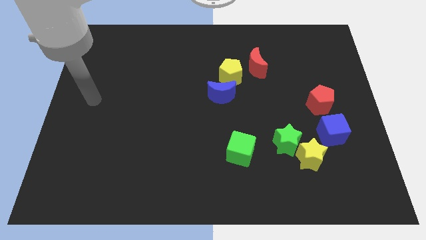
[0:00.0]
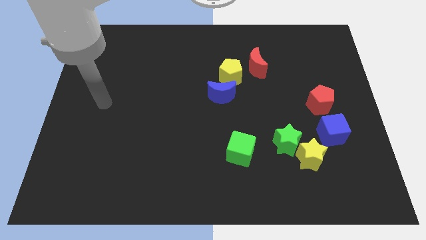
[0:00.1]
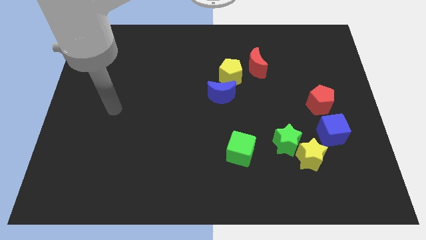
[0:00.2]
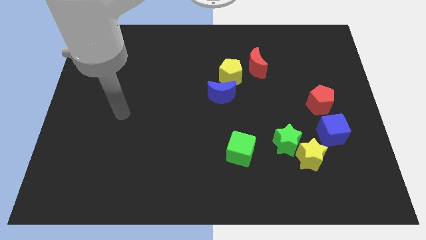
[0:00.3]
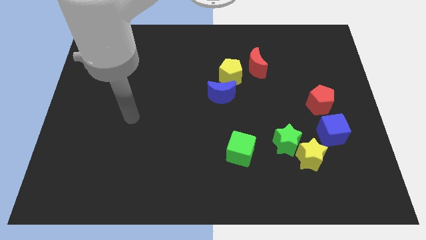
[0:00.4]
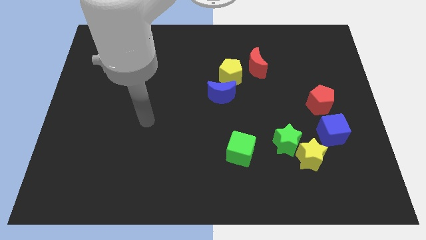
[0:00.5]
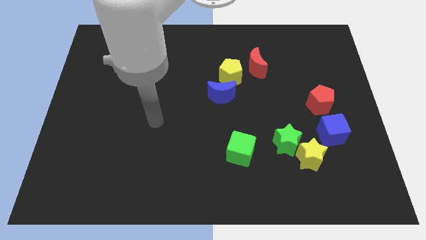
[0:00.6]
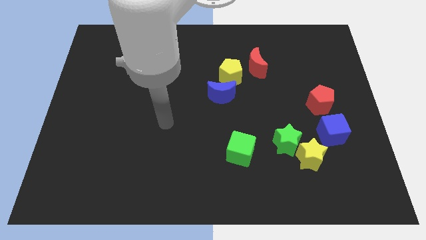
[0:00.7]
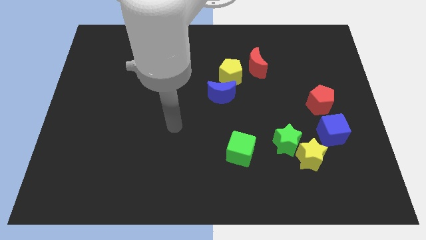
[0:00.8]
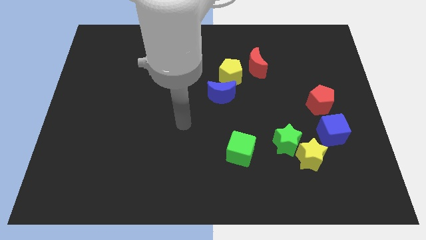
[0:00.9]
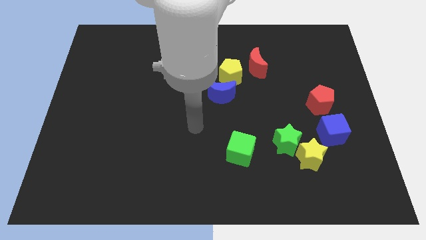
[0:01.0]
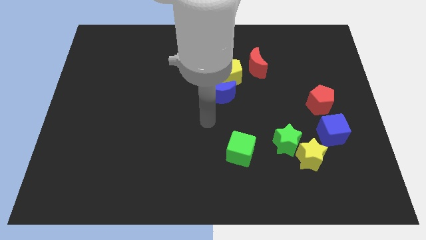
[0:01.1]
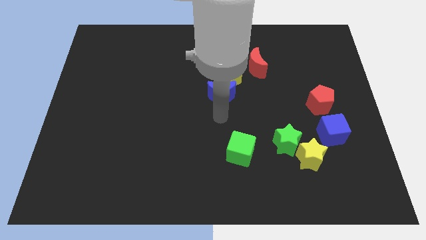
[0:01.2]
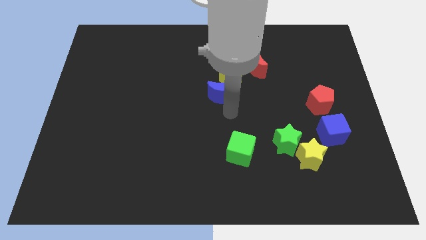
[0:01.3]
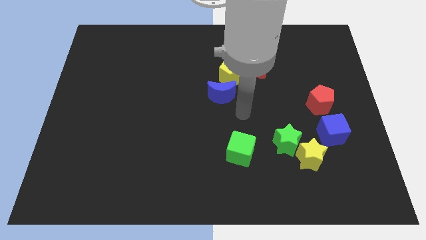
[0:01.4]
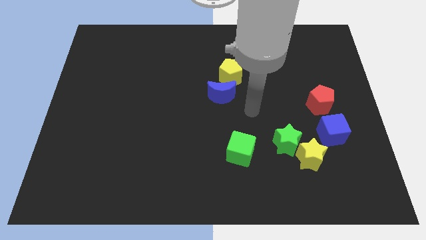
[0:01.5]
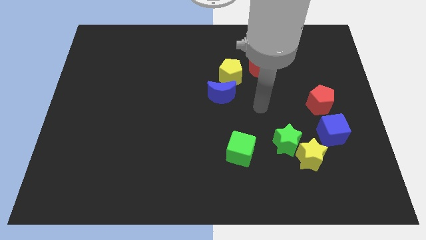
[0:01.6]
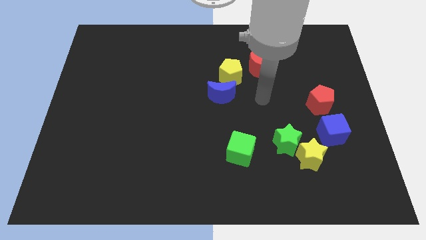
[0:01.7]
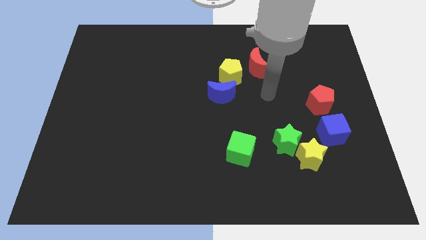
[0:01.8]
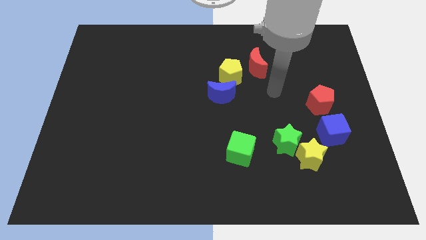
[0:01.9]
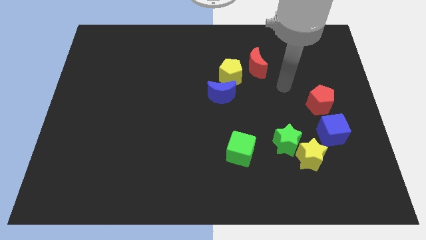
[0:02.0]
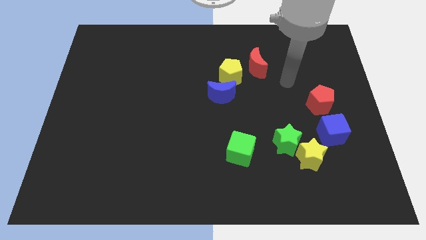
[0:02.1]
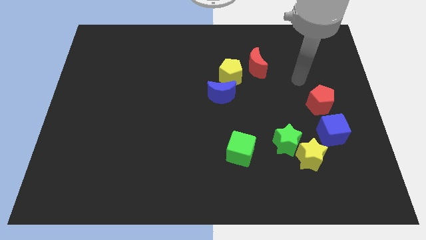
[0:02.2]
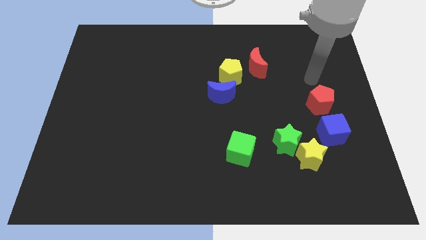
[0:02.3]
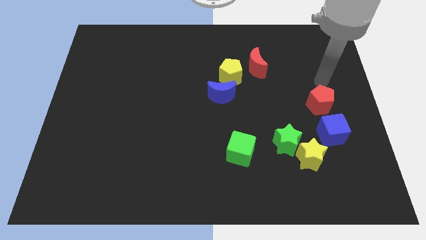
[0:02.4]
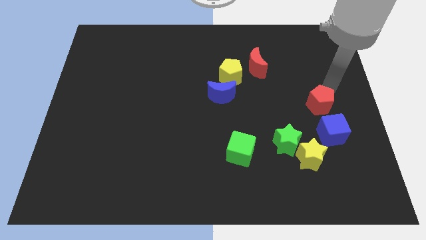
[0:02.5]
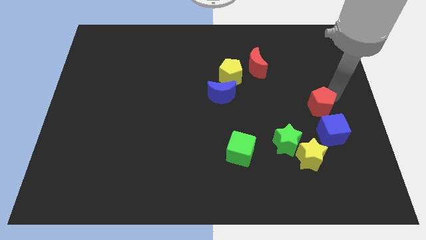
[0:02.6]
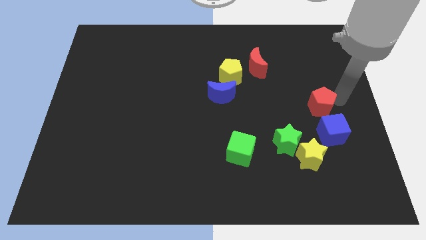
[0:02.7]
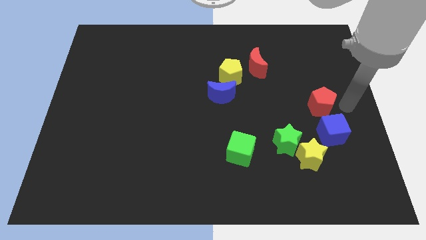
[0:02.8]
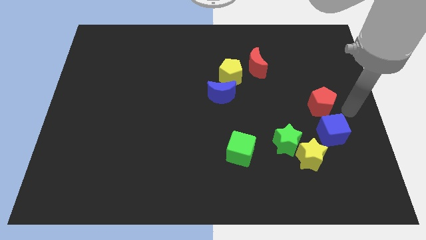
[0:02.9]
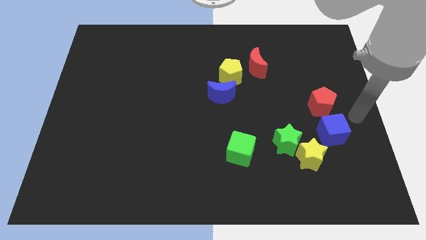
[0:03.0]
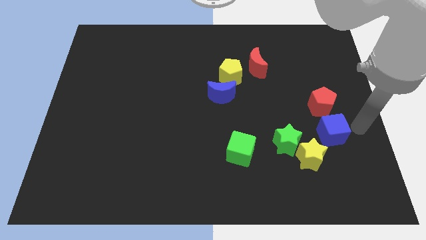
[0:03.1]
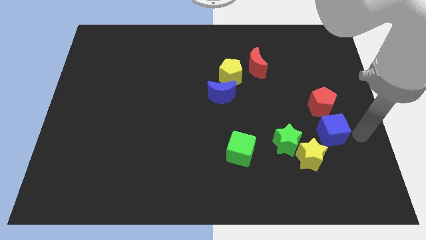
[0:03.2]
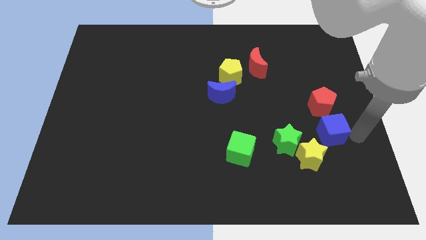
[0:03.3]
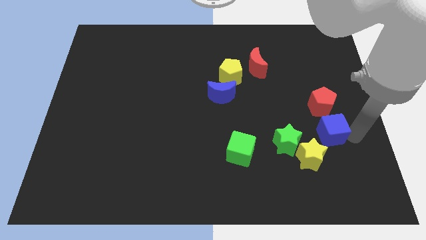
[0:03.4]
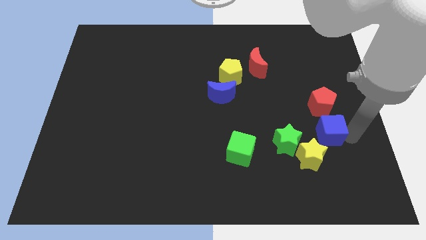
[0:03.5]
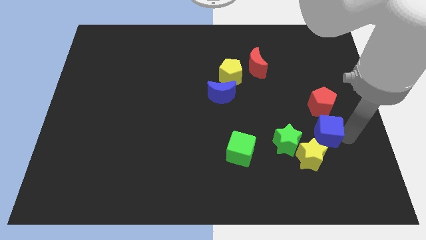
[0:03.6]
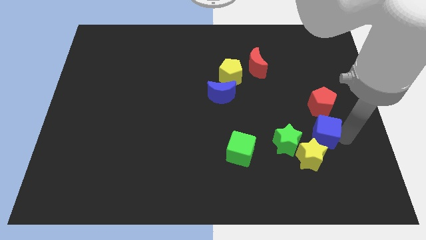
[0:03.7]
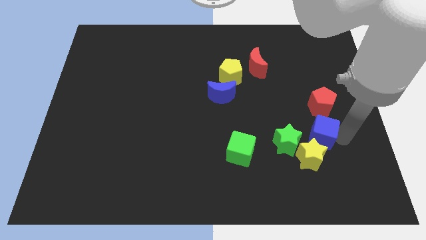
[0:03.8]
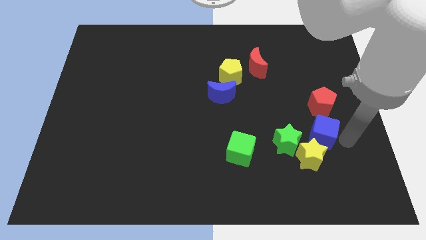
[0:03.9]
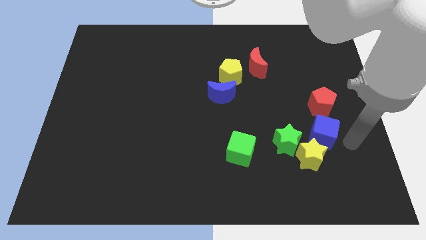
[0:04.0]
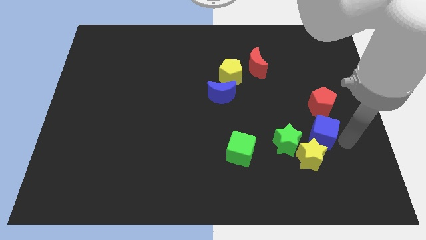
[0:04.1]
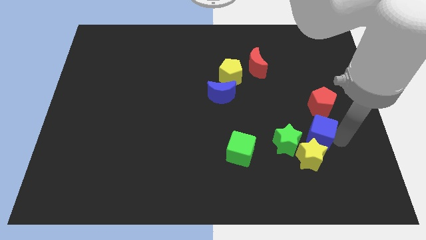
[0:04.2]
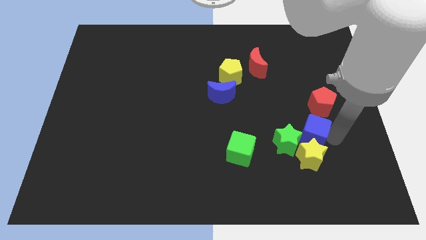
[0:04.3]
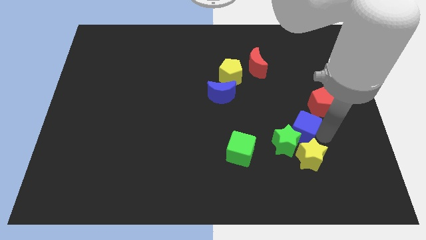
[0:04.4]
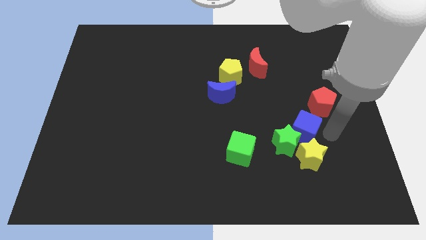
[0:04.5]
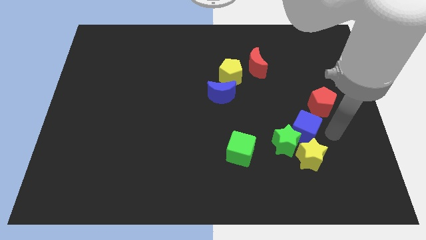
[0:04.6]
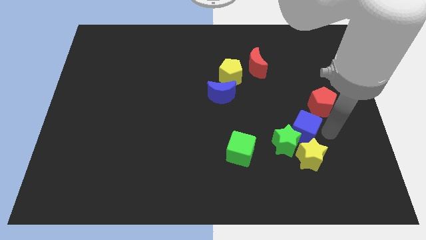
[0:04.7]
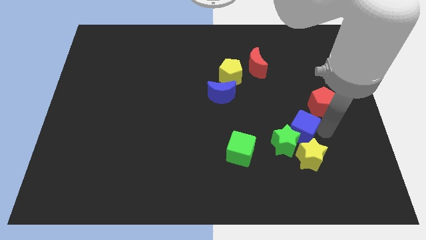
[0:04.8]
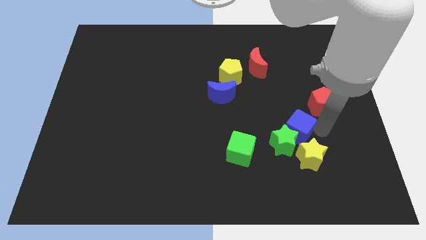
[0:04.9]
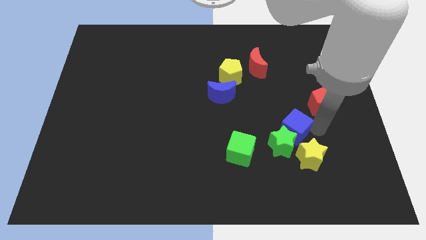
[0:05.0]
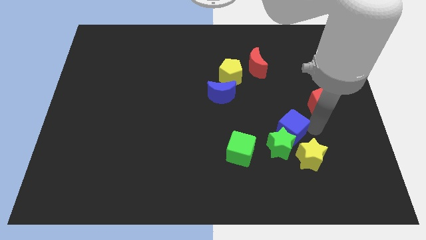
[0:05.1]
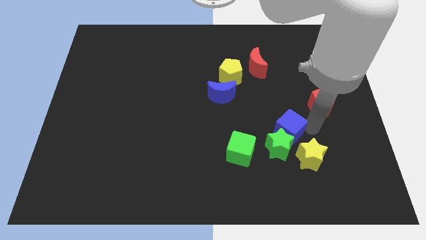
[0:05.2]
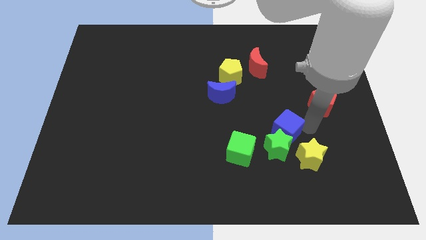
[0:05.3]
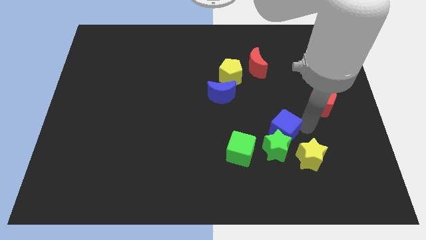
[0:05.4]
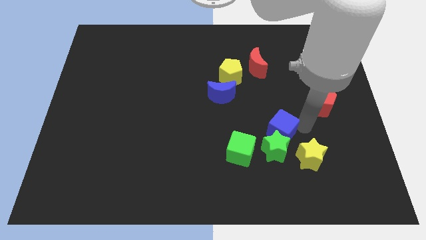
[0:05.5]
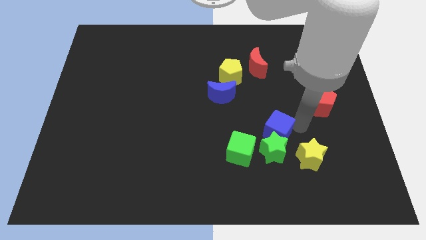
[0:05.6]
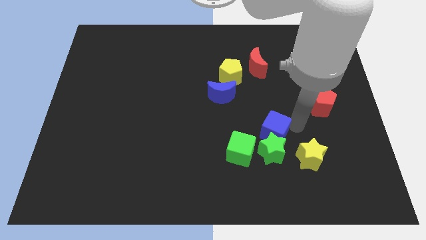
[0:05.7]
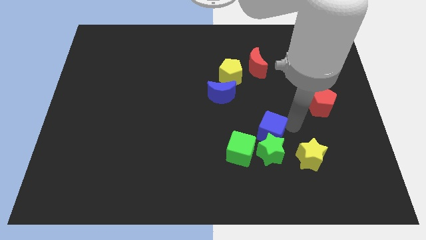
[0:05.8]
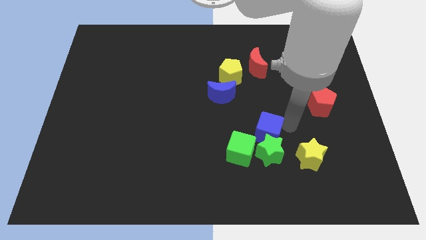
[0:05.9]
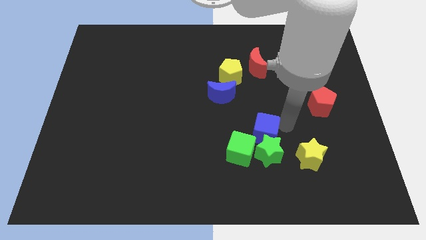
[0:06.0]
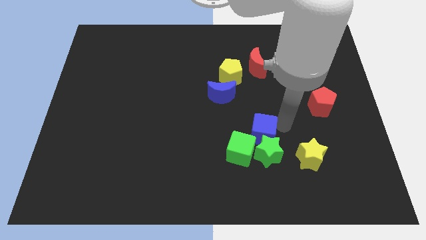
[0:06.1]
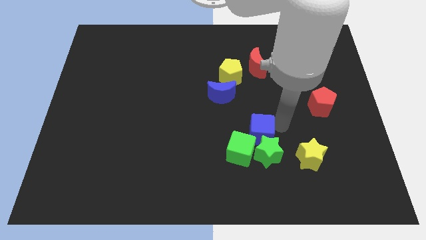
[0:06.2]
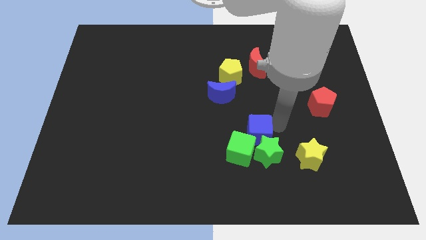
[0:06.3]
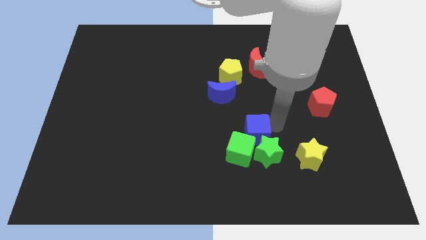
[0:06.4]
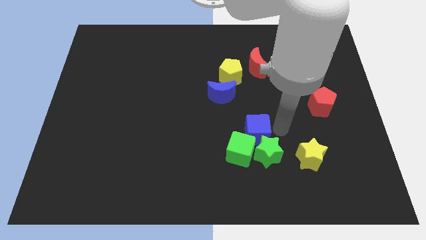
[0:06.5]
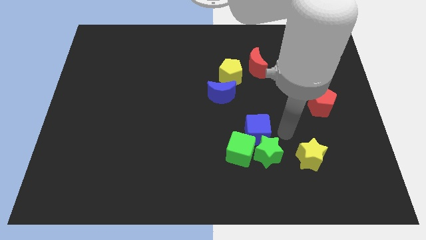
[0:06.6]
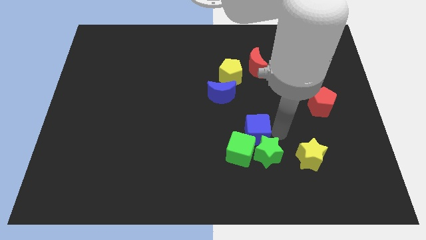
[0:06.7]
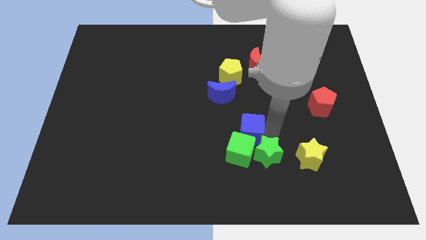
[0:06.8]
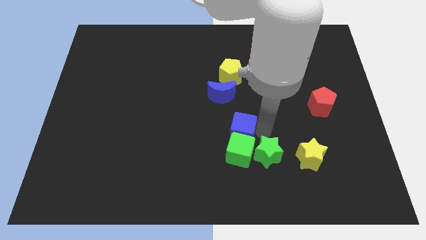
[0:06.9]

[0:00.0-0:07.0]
push the blue cube to the bottom of the blue moon

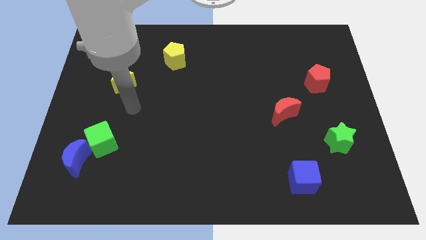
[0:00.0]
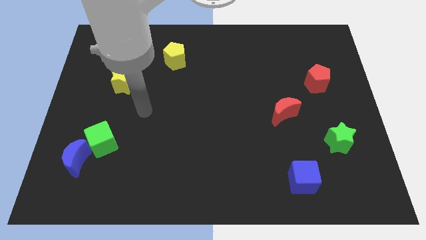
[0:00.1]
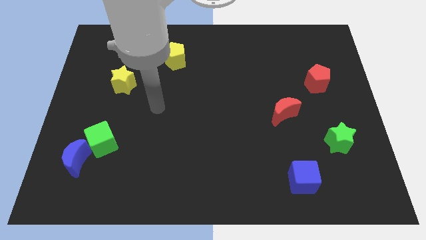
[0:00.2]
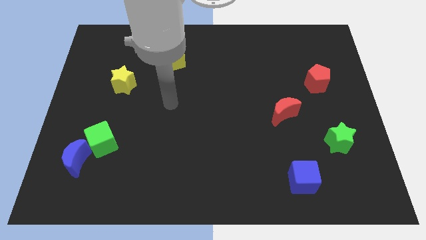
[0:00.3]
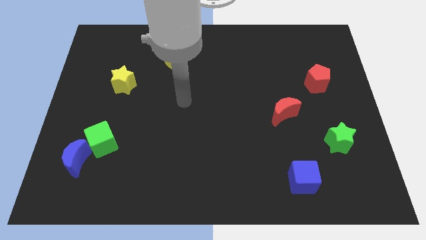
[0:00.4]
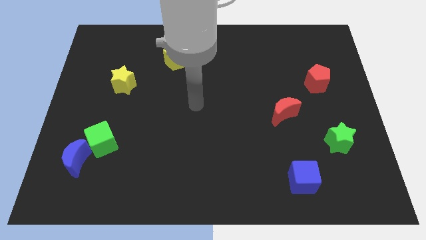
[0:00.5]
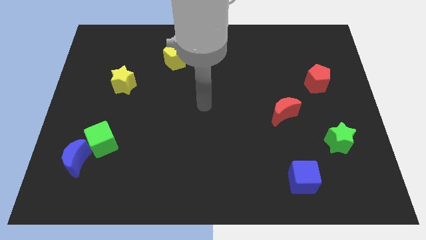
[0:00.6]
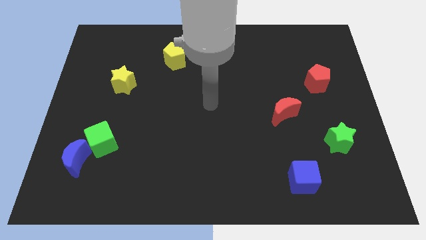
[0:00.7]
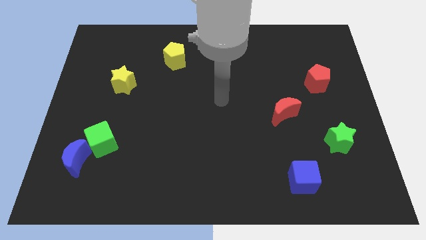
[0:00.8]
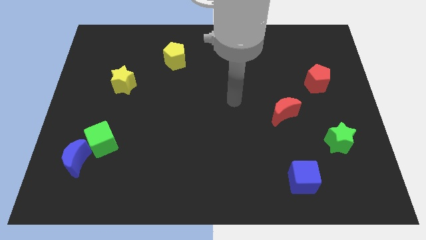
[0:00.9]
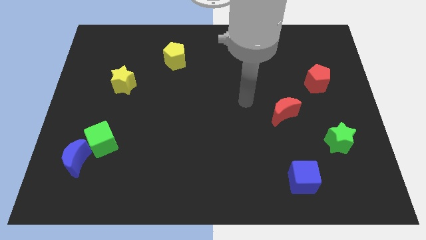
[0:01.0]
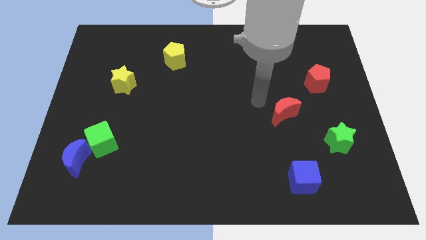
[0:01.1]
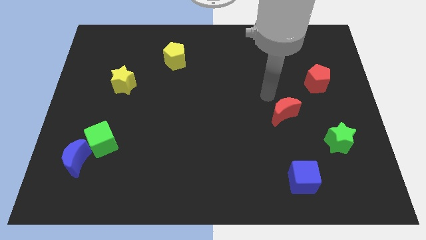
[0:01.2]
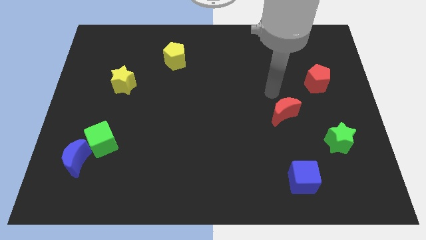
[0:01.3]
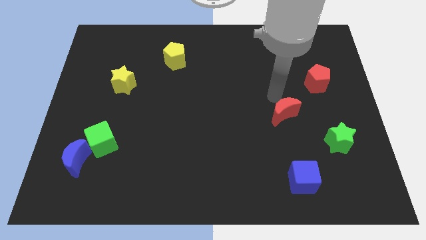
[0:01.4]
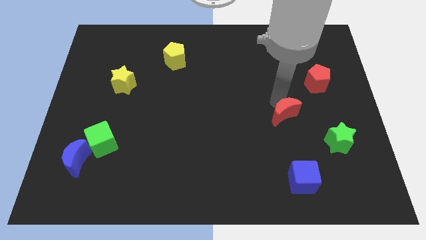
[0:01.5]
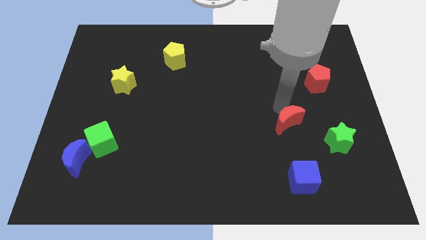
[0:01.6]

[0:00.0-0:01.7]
push the red moon to the top side of the blue cube
